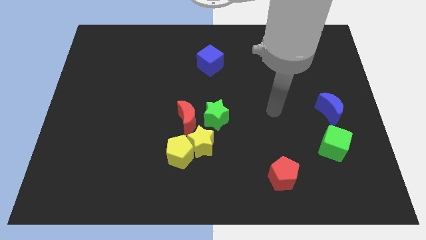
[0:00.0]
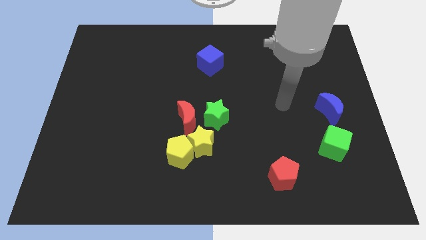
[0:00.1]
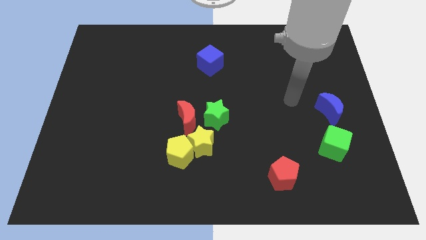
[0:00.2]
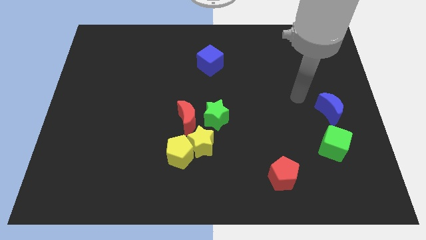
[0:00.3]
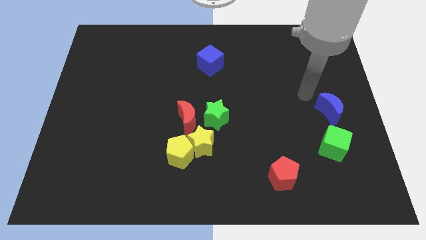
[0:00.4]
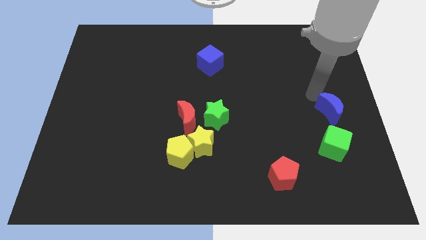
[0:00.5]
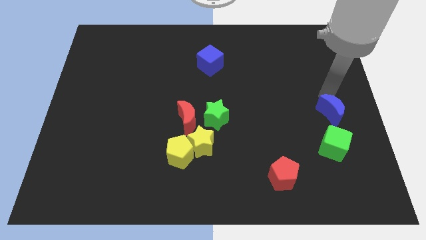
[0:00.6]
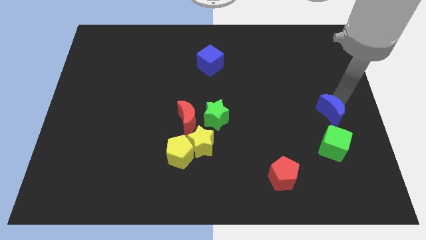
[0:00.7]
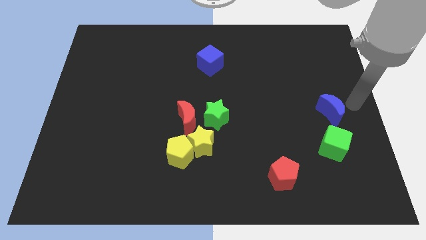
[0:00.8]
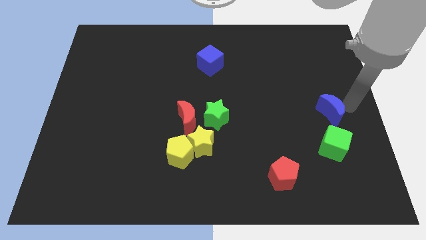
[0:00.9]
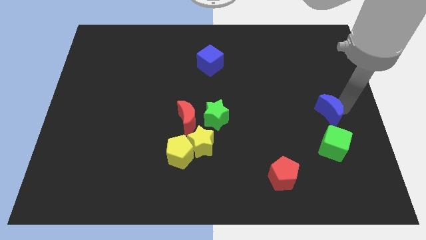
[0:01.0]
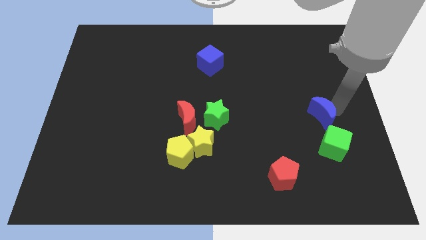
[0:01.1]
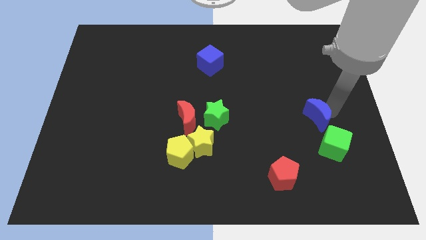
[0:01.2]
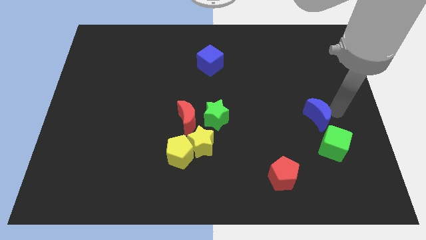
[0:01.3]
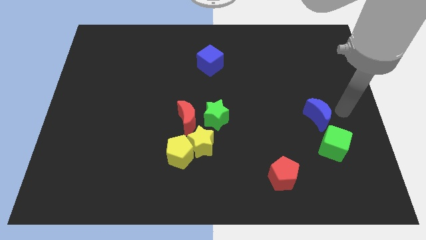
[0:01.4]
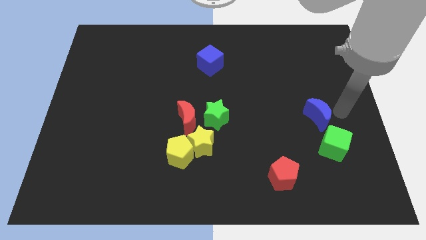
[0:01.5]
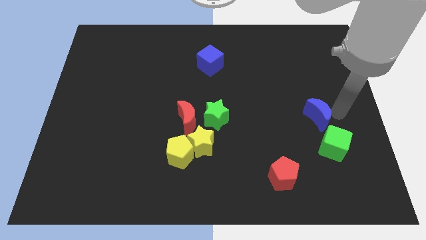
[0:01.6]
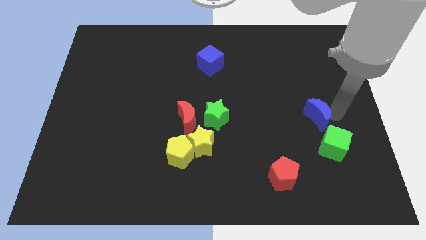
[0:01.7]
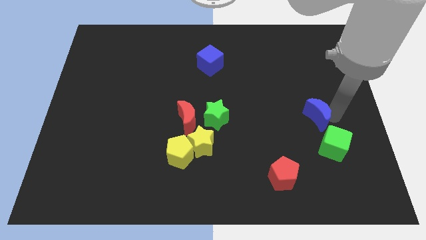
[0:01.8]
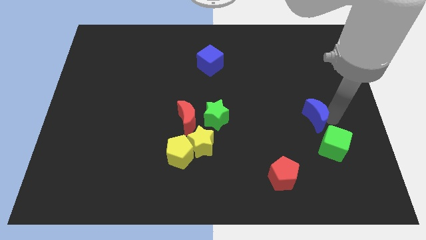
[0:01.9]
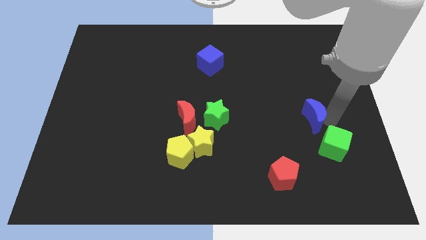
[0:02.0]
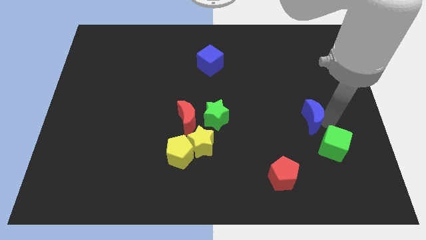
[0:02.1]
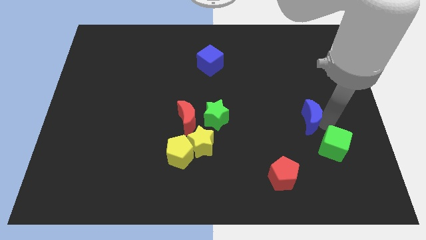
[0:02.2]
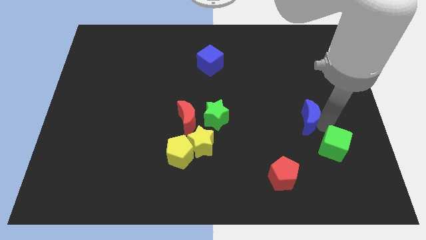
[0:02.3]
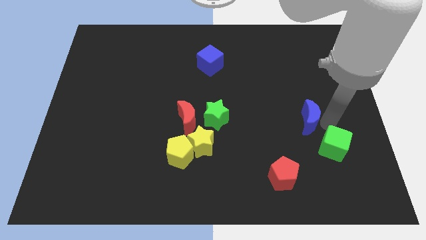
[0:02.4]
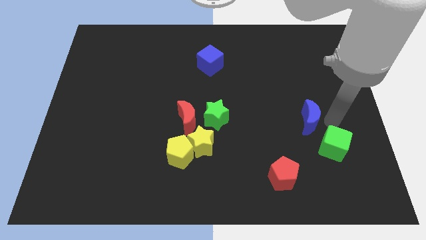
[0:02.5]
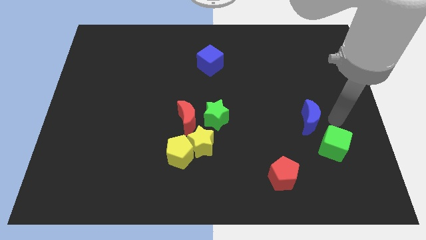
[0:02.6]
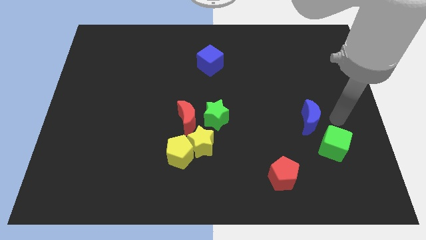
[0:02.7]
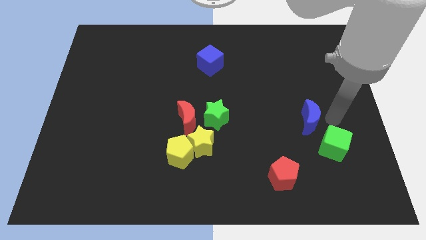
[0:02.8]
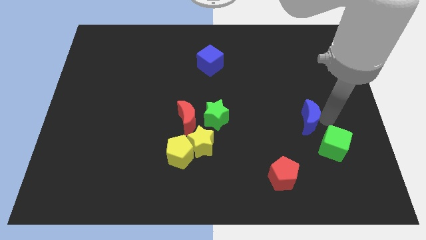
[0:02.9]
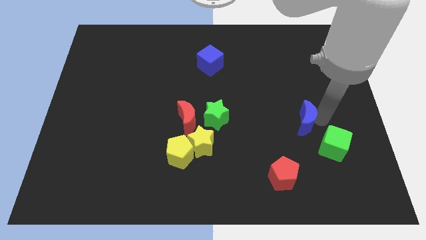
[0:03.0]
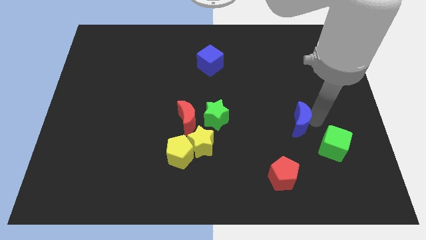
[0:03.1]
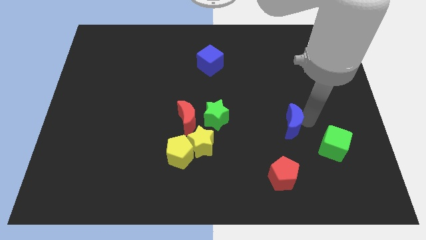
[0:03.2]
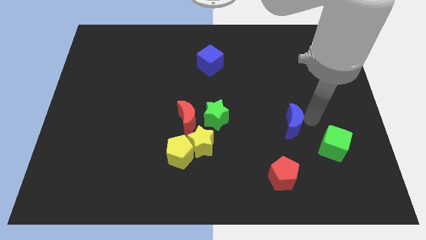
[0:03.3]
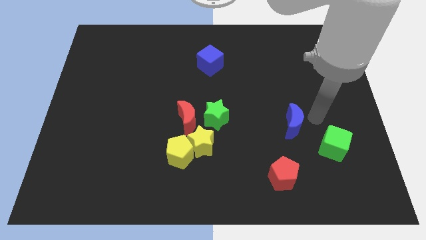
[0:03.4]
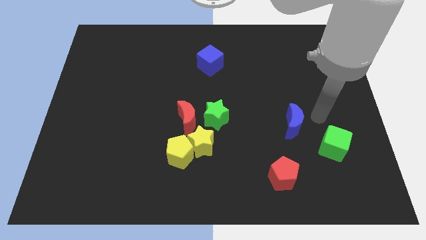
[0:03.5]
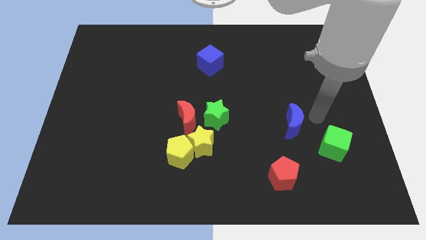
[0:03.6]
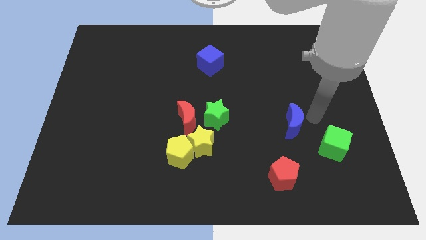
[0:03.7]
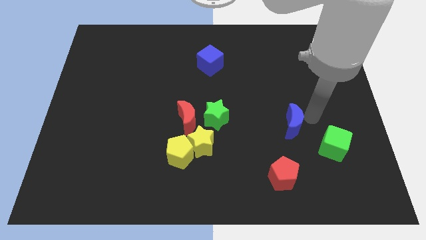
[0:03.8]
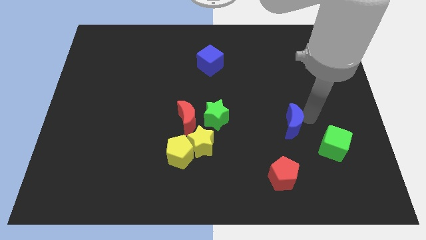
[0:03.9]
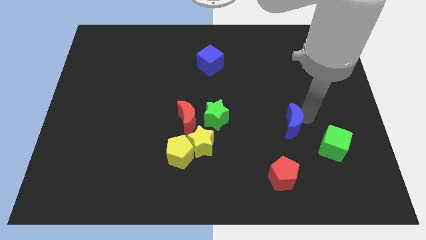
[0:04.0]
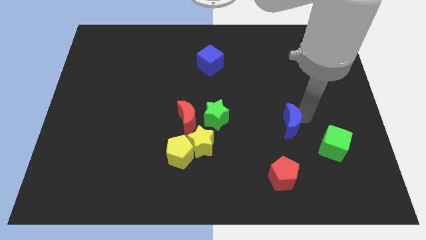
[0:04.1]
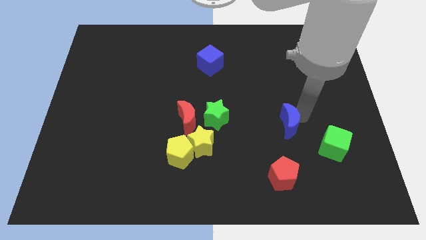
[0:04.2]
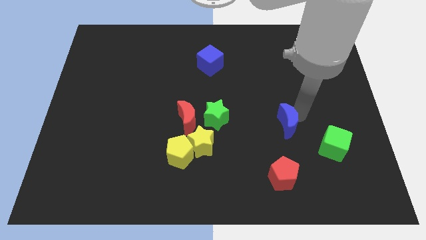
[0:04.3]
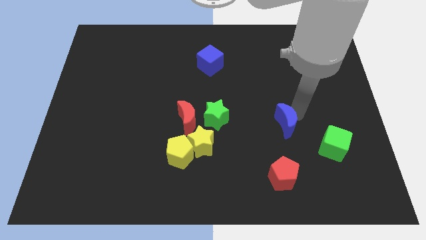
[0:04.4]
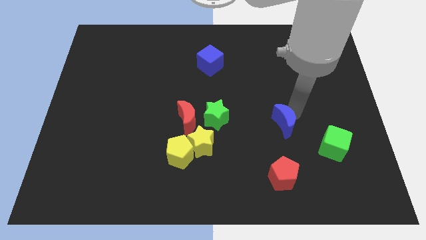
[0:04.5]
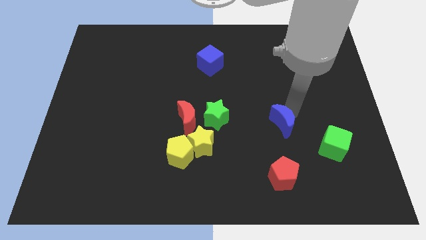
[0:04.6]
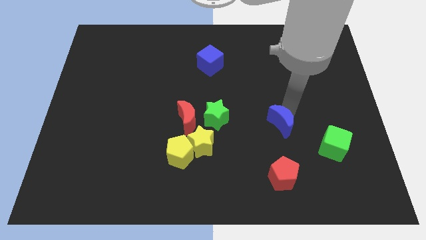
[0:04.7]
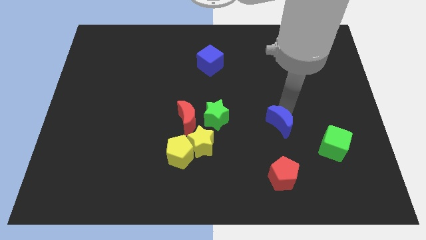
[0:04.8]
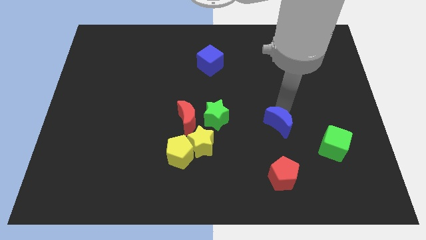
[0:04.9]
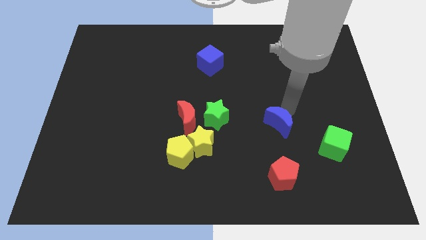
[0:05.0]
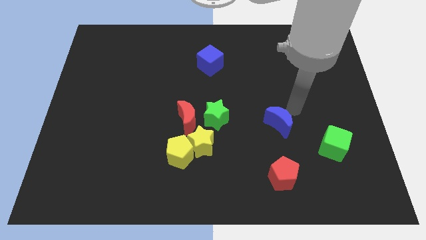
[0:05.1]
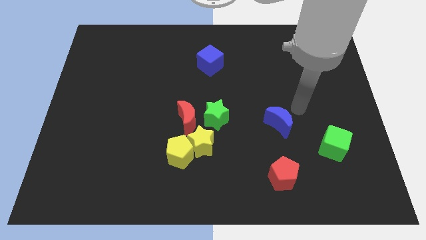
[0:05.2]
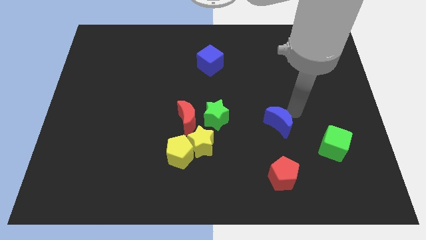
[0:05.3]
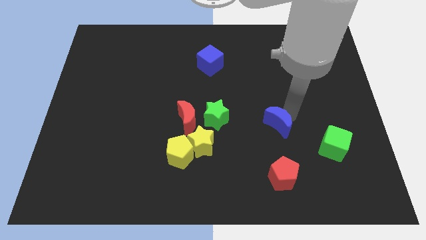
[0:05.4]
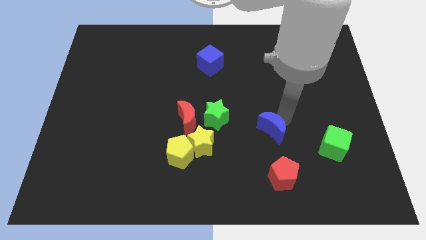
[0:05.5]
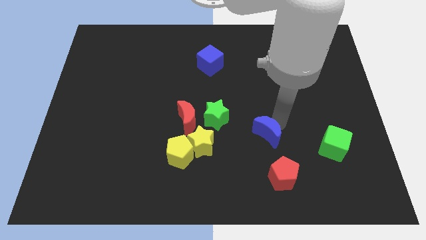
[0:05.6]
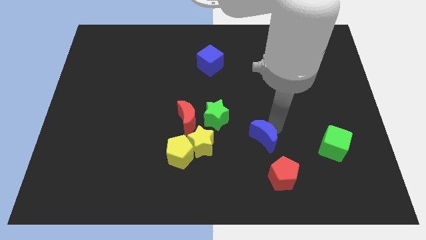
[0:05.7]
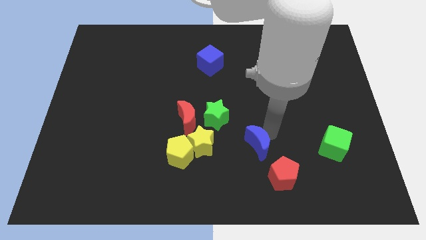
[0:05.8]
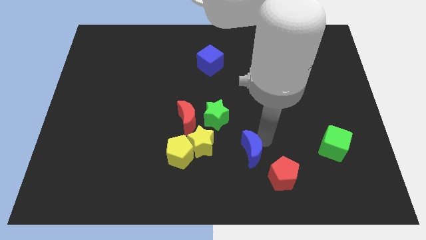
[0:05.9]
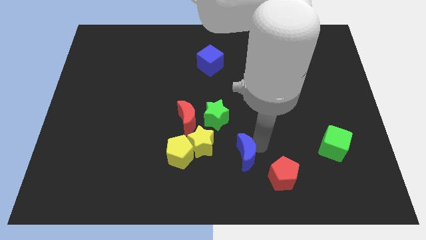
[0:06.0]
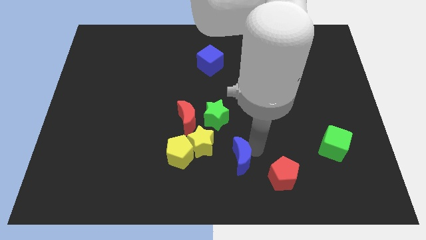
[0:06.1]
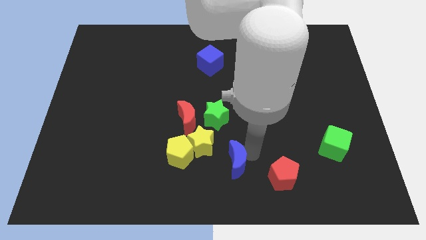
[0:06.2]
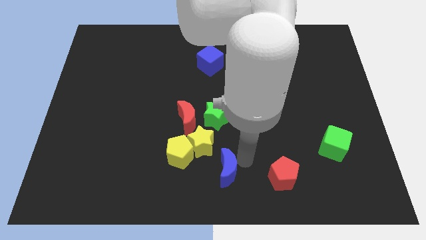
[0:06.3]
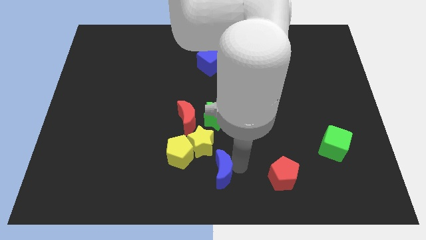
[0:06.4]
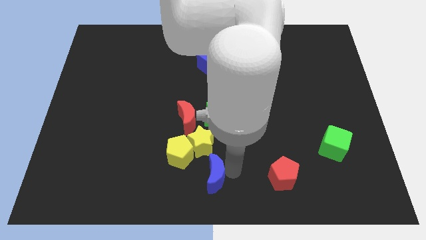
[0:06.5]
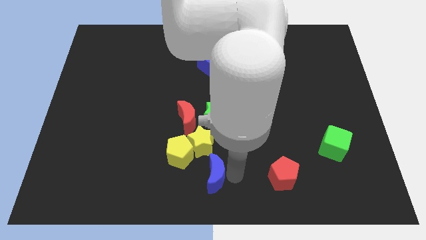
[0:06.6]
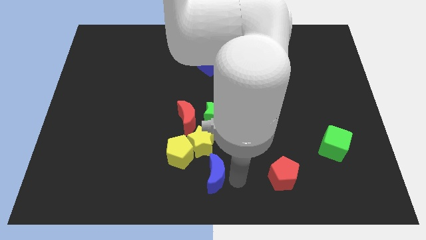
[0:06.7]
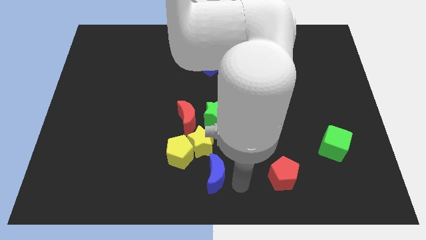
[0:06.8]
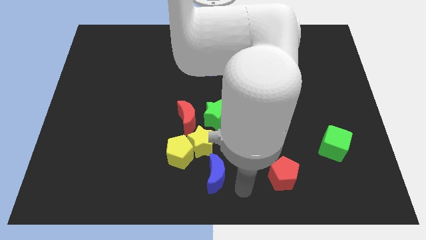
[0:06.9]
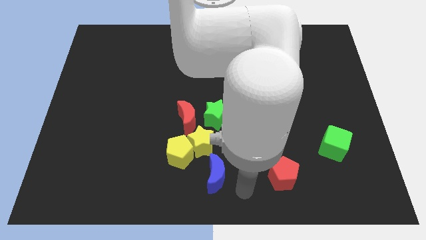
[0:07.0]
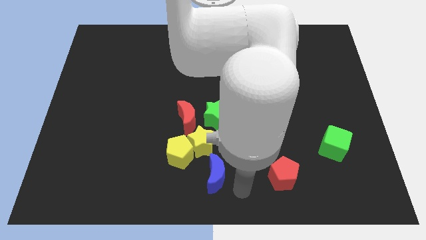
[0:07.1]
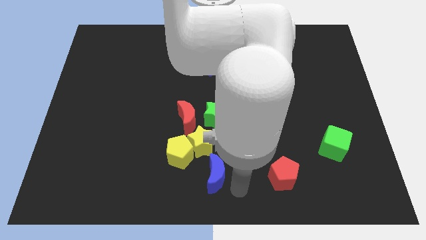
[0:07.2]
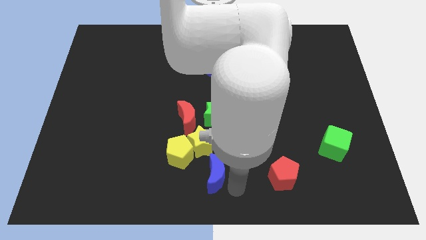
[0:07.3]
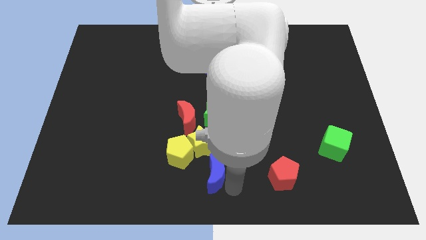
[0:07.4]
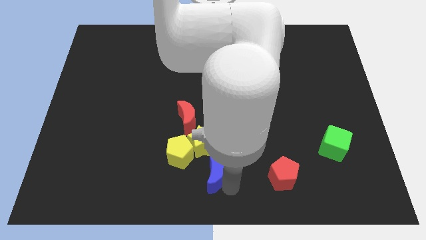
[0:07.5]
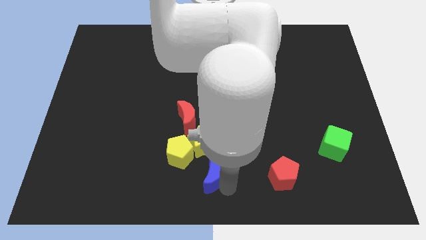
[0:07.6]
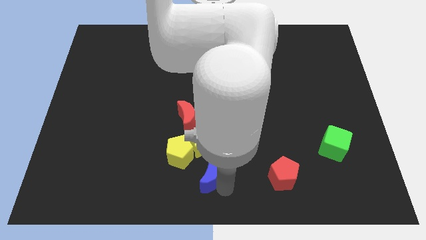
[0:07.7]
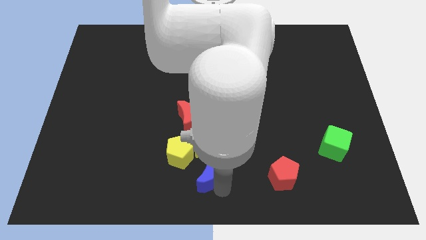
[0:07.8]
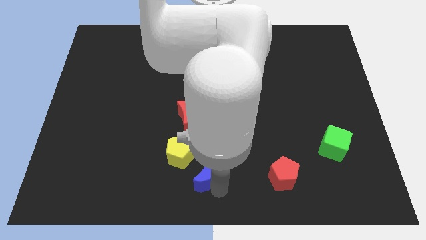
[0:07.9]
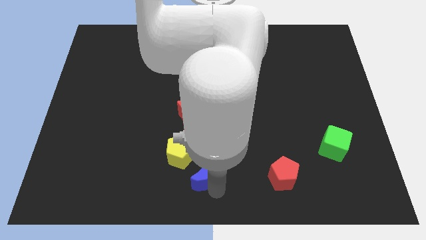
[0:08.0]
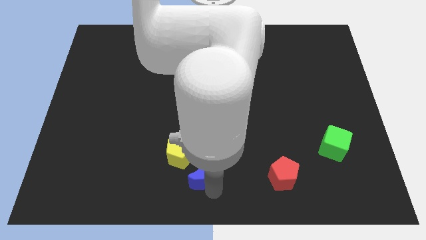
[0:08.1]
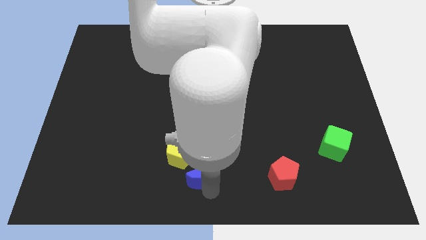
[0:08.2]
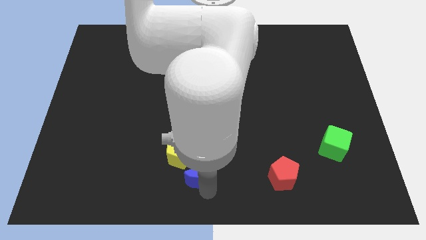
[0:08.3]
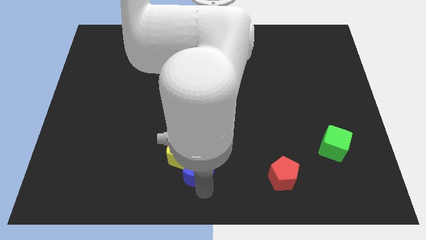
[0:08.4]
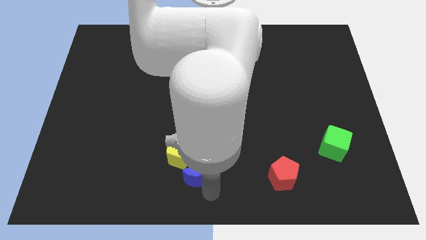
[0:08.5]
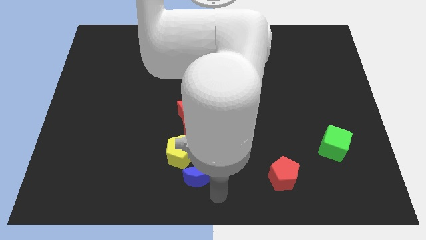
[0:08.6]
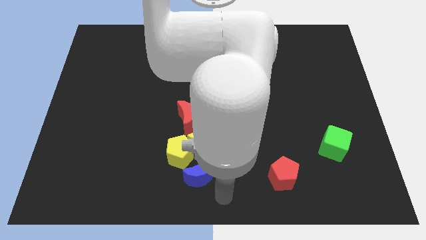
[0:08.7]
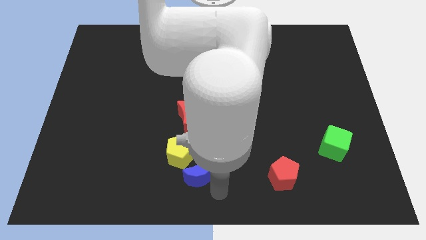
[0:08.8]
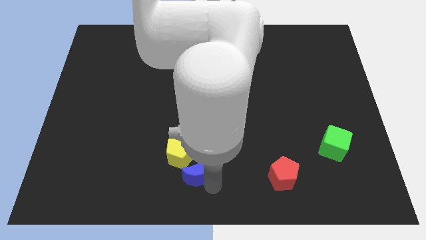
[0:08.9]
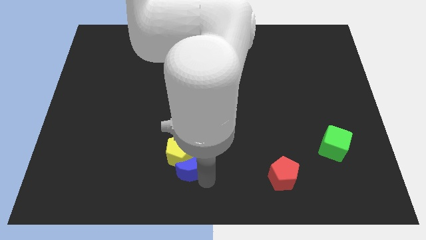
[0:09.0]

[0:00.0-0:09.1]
move the blue moon towards the yellow pentagon
